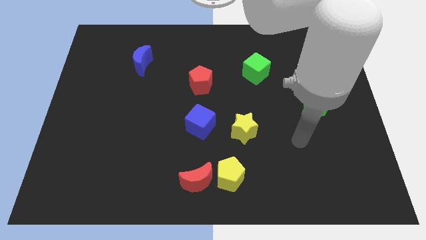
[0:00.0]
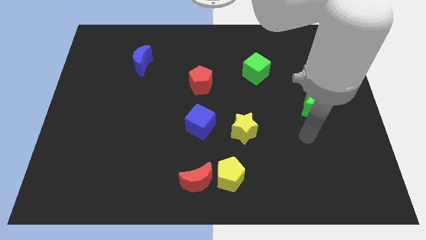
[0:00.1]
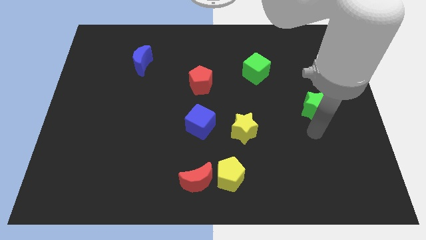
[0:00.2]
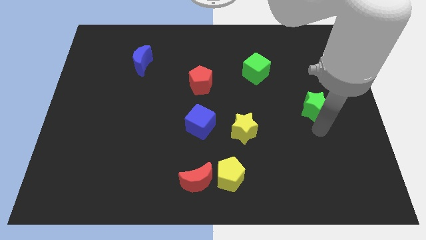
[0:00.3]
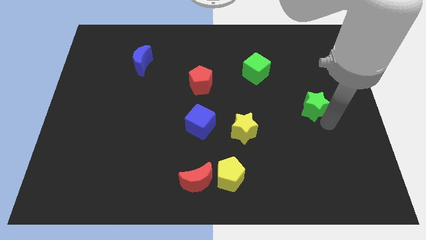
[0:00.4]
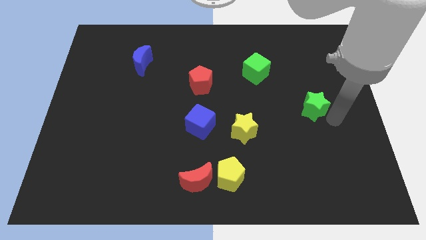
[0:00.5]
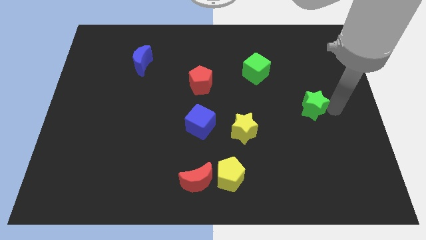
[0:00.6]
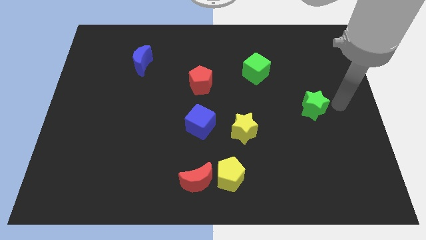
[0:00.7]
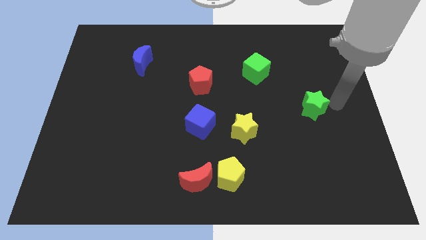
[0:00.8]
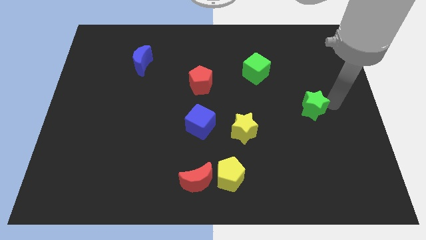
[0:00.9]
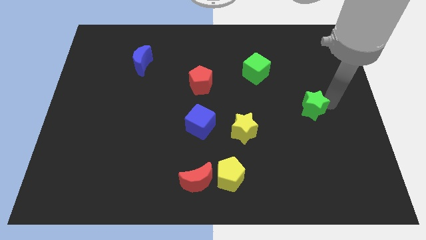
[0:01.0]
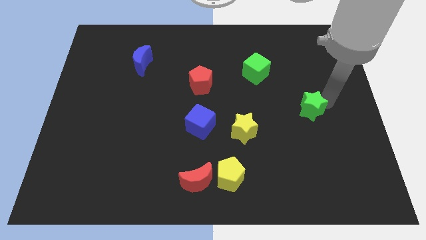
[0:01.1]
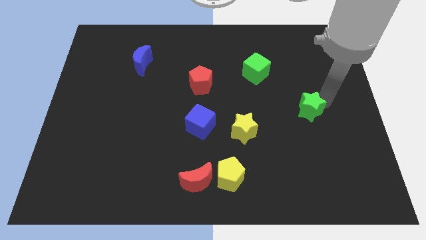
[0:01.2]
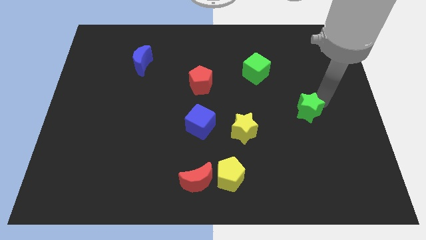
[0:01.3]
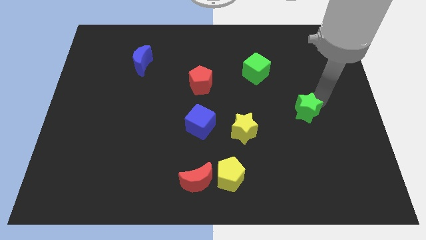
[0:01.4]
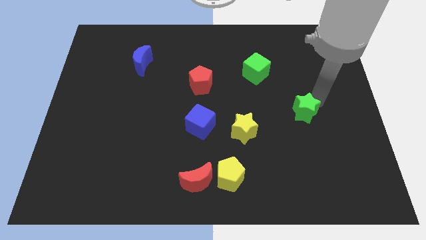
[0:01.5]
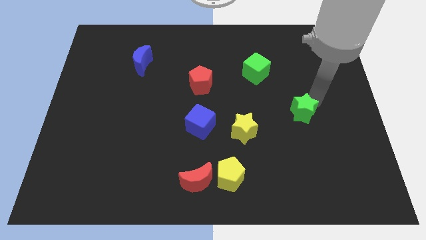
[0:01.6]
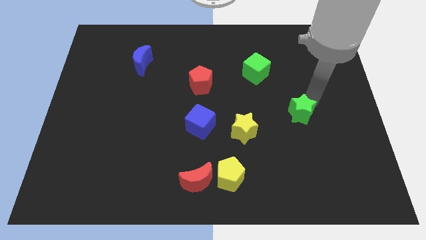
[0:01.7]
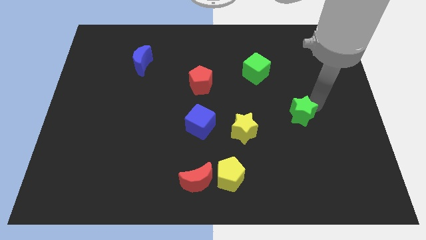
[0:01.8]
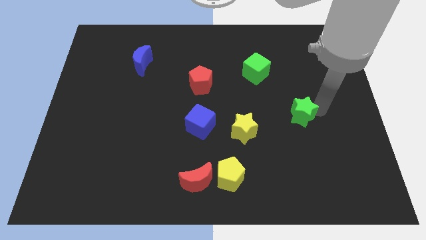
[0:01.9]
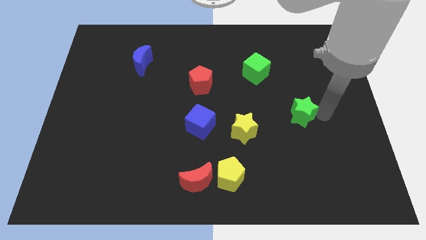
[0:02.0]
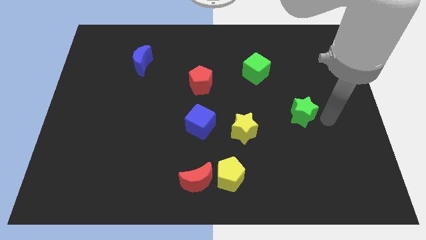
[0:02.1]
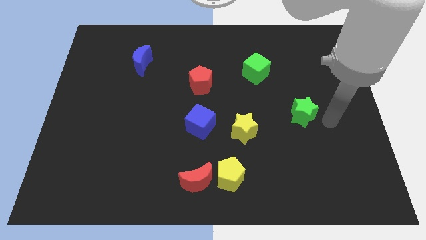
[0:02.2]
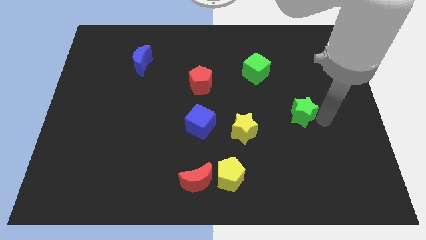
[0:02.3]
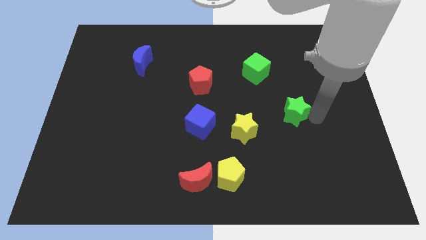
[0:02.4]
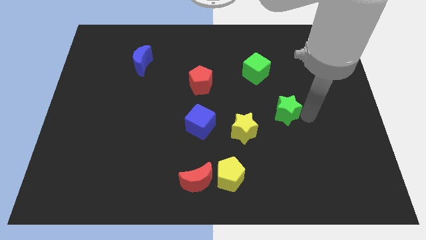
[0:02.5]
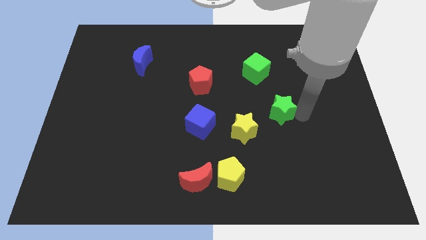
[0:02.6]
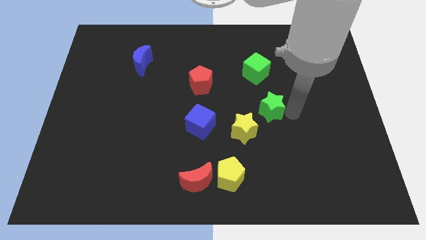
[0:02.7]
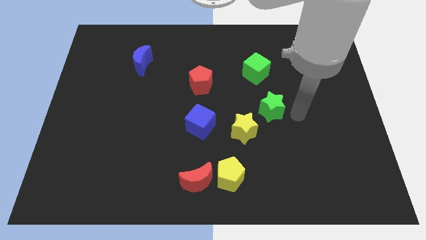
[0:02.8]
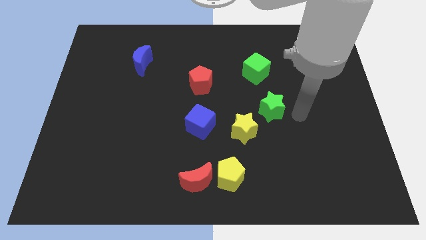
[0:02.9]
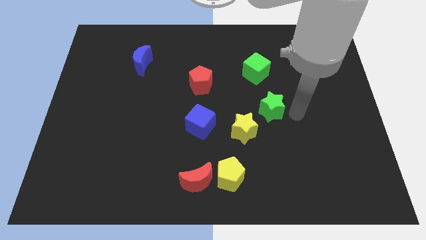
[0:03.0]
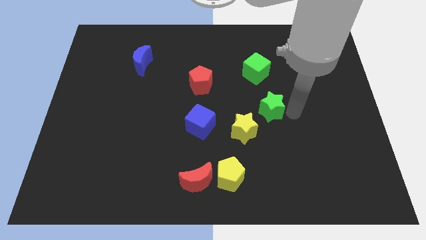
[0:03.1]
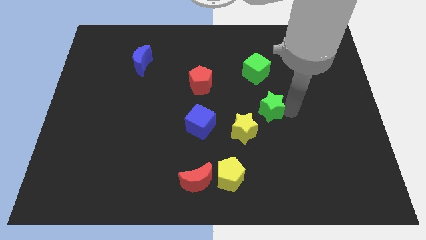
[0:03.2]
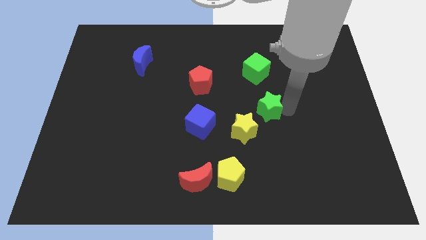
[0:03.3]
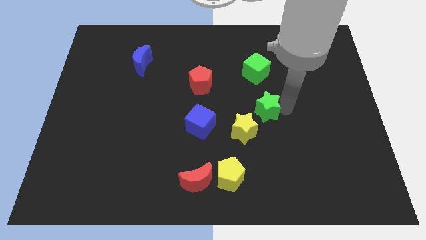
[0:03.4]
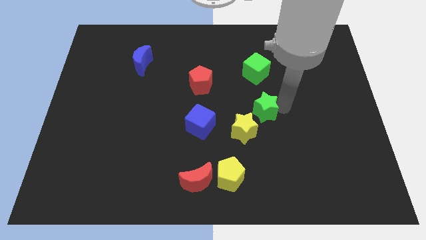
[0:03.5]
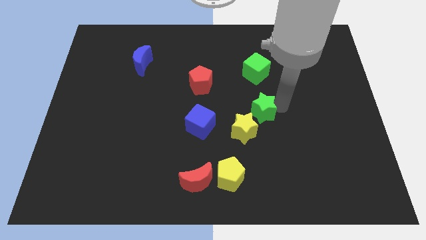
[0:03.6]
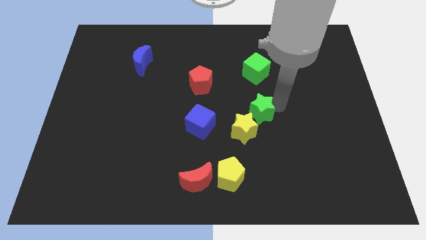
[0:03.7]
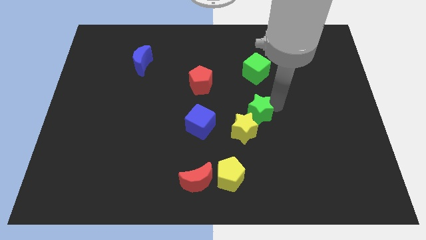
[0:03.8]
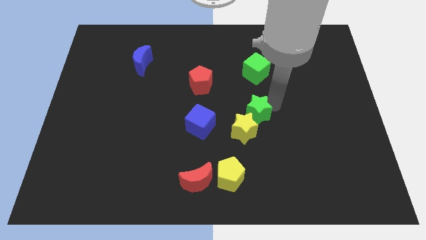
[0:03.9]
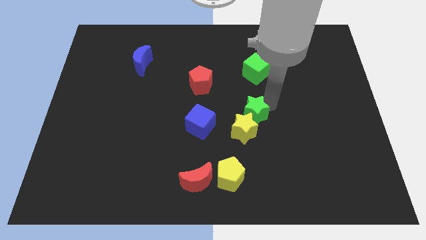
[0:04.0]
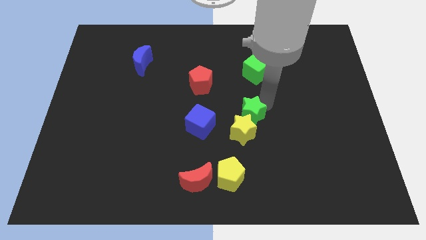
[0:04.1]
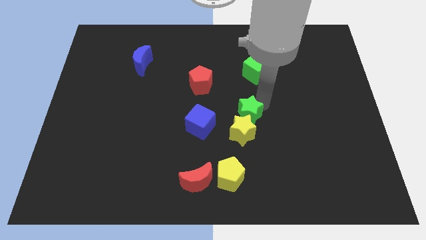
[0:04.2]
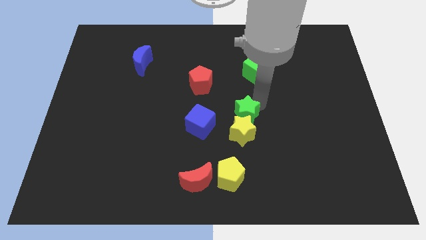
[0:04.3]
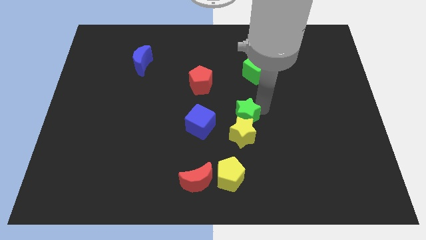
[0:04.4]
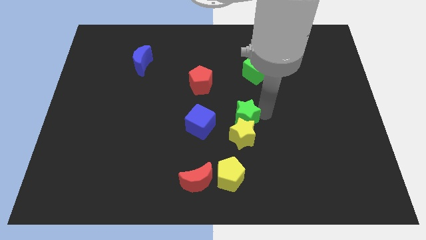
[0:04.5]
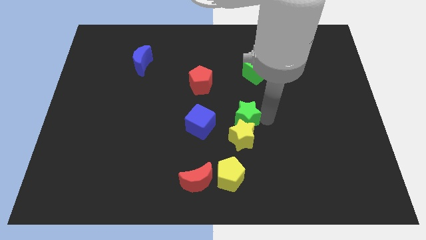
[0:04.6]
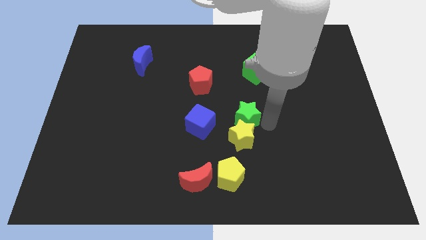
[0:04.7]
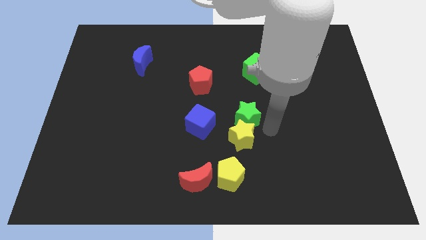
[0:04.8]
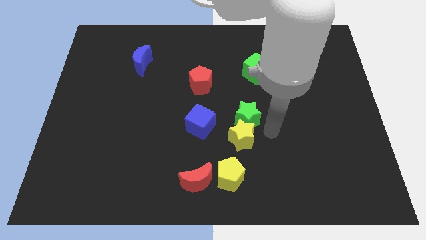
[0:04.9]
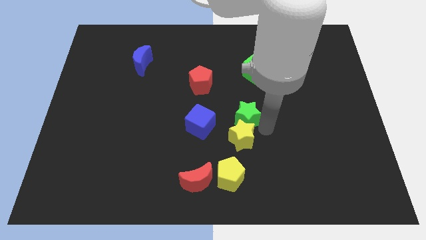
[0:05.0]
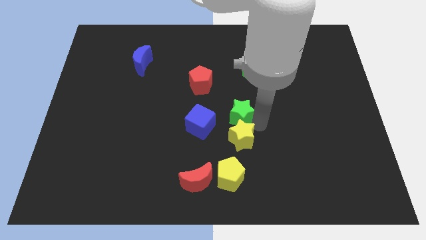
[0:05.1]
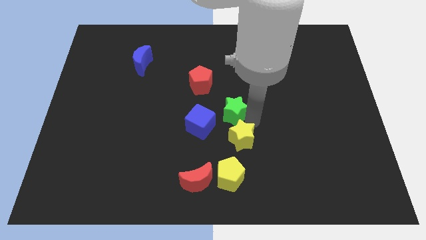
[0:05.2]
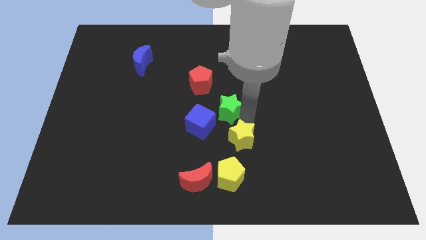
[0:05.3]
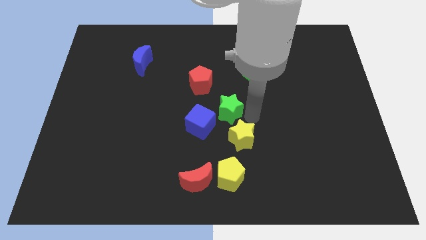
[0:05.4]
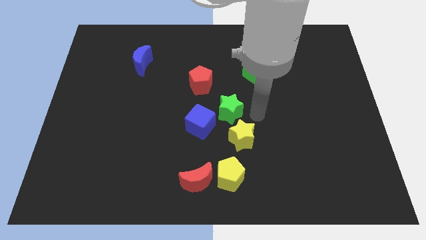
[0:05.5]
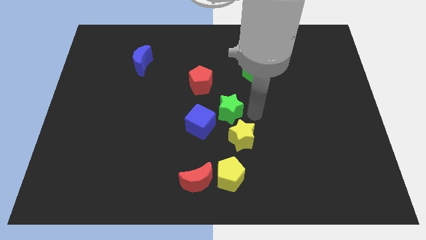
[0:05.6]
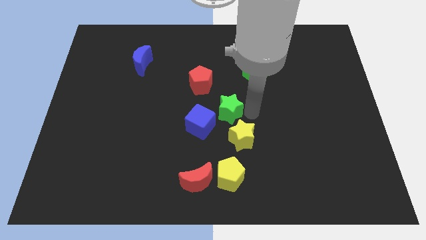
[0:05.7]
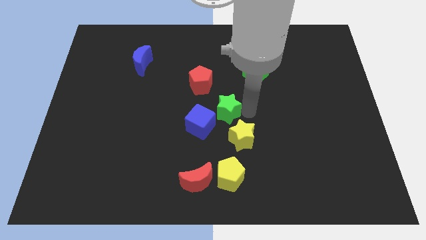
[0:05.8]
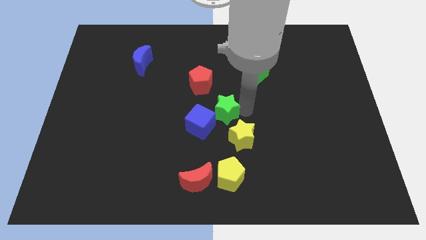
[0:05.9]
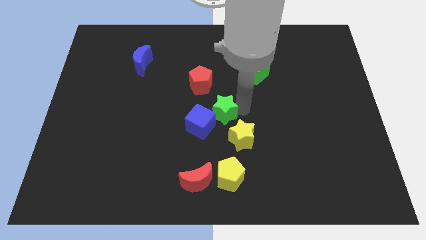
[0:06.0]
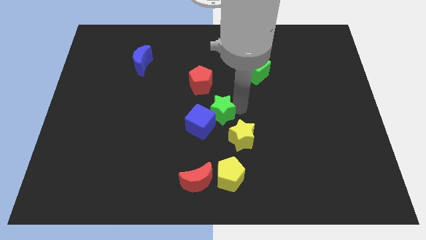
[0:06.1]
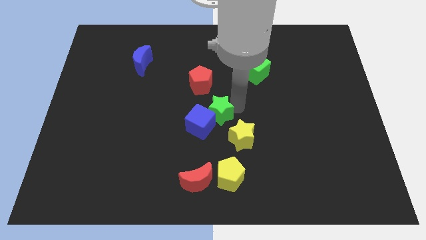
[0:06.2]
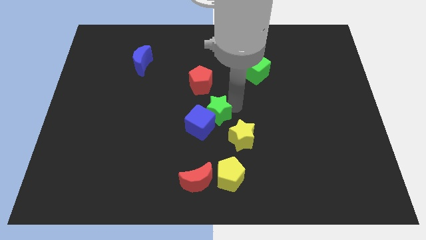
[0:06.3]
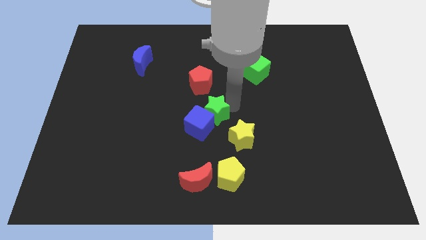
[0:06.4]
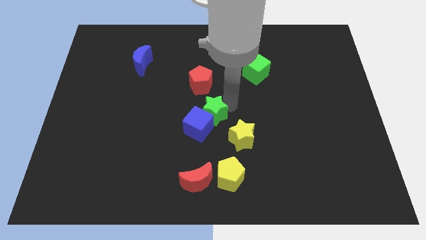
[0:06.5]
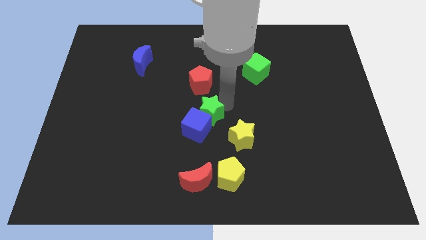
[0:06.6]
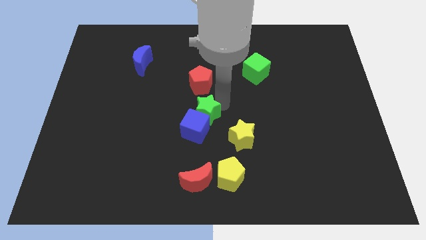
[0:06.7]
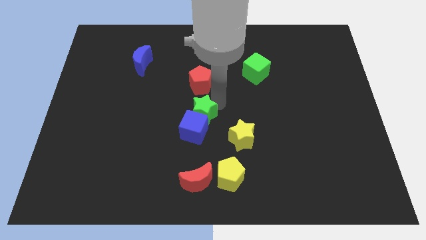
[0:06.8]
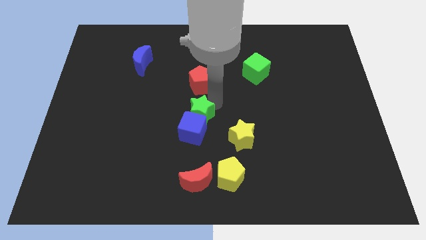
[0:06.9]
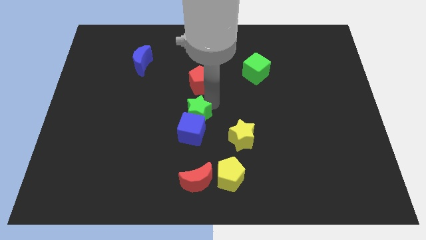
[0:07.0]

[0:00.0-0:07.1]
slide the green star to the top left of the blue cube

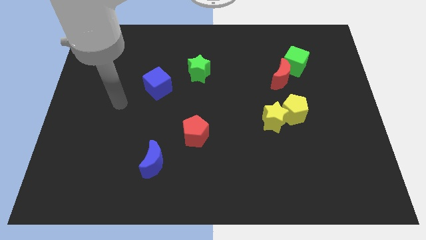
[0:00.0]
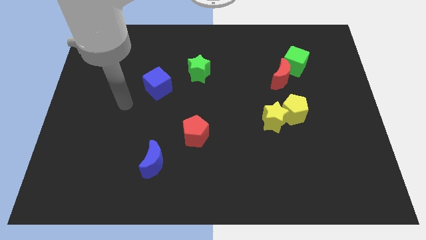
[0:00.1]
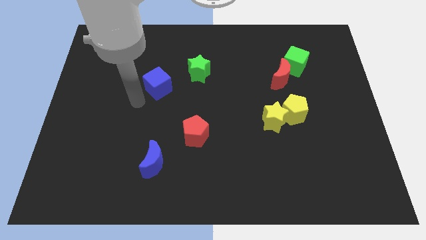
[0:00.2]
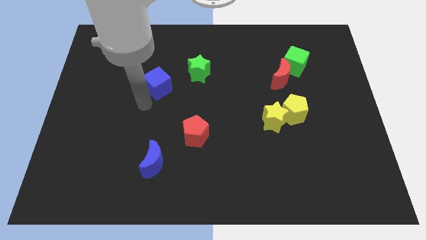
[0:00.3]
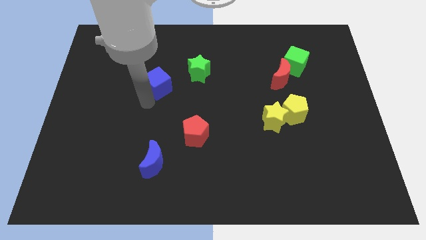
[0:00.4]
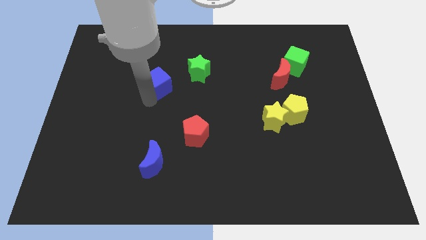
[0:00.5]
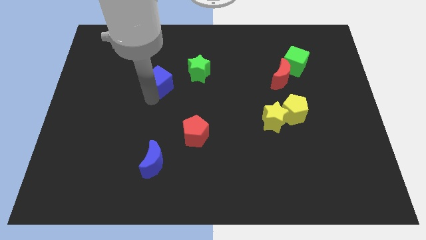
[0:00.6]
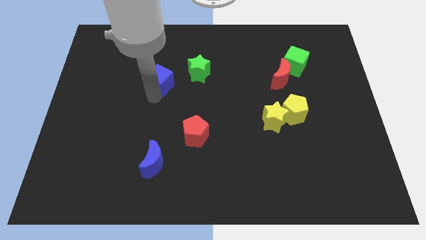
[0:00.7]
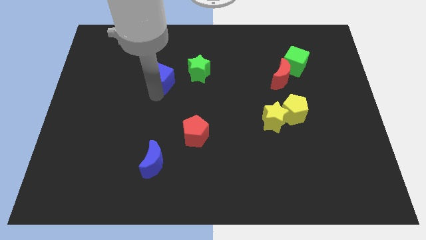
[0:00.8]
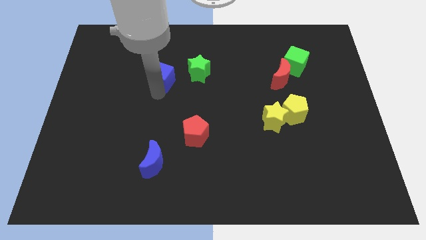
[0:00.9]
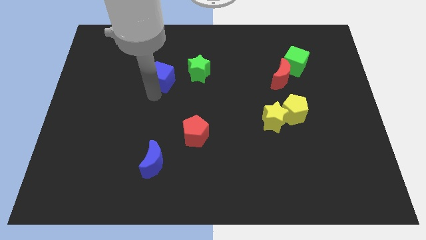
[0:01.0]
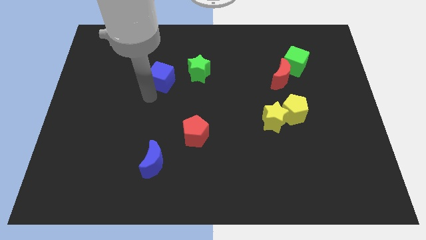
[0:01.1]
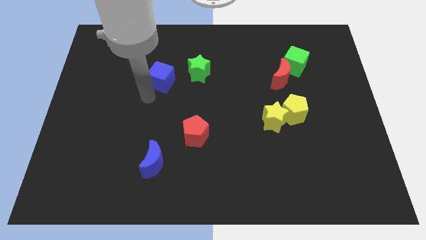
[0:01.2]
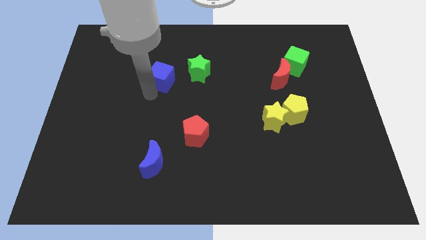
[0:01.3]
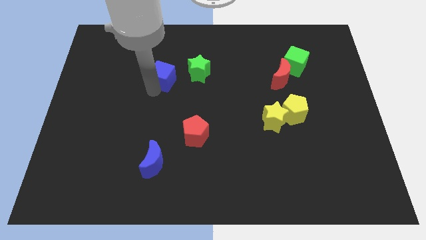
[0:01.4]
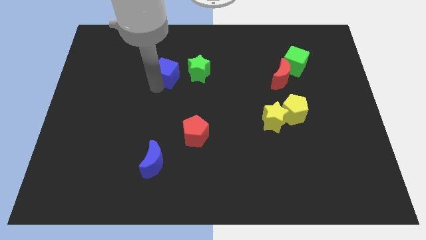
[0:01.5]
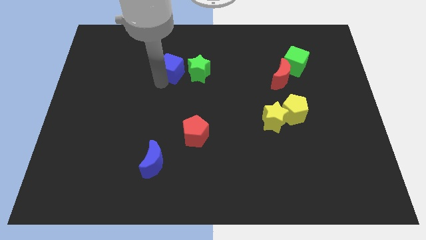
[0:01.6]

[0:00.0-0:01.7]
move the blue cube to the top left side of the green star
